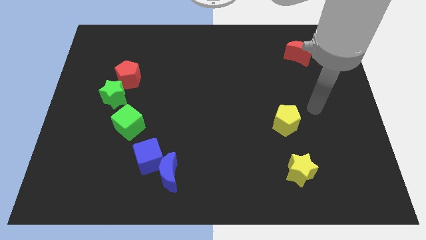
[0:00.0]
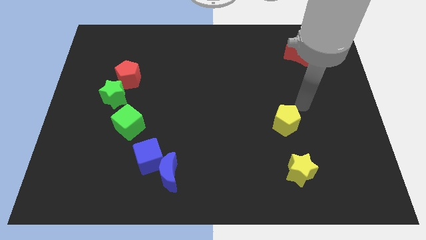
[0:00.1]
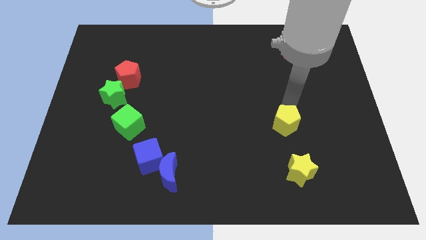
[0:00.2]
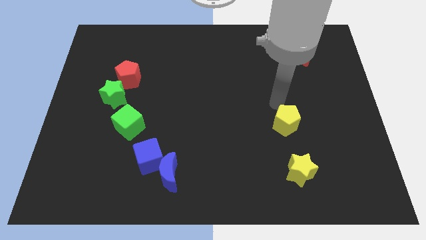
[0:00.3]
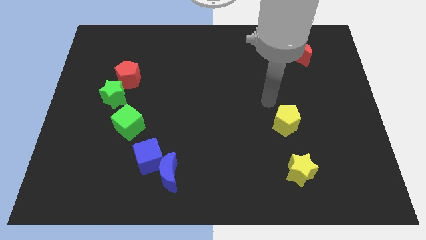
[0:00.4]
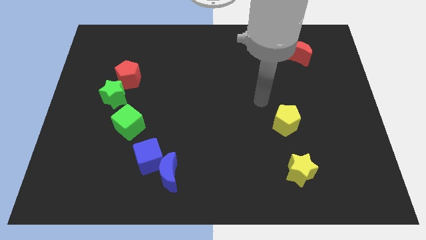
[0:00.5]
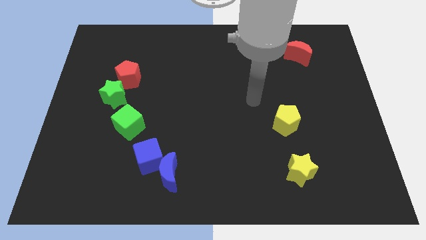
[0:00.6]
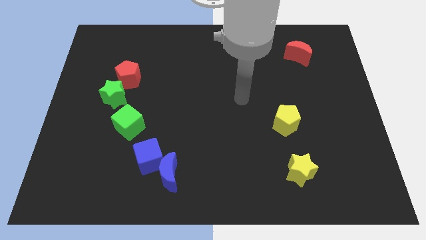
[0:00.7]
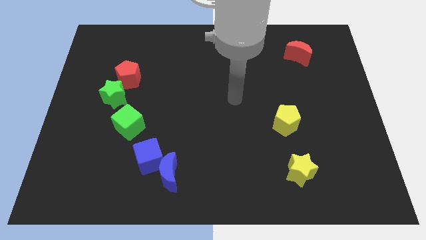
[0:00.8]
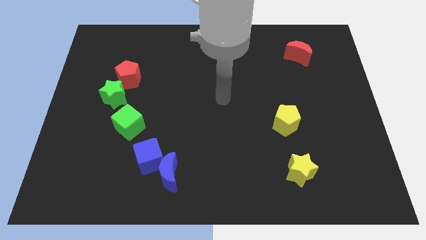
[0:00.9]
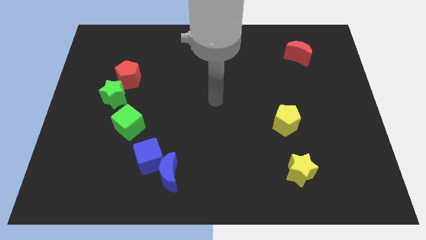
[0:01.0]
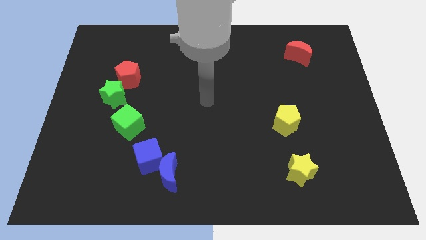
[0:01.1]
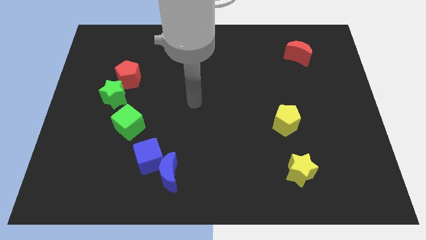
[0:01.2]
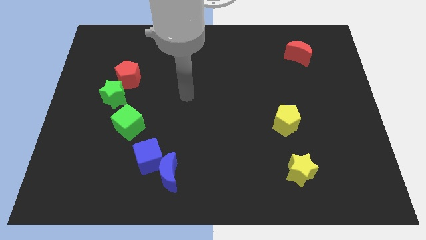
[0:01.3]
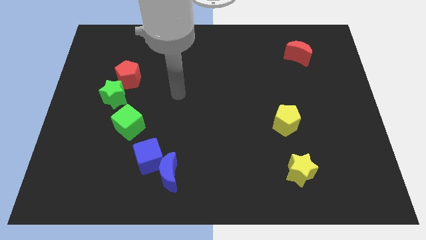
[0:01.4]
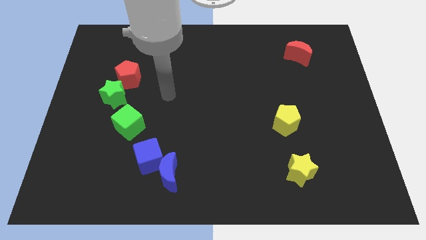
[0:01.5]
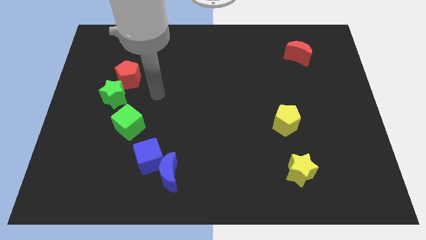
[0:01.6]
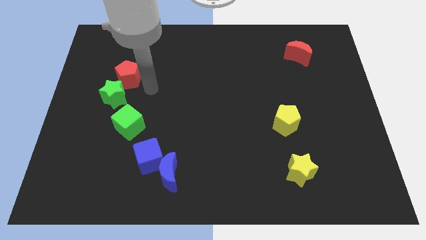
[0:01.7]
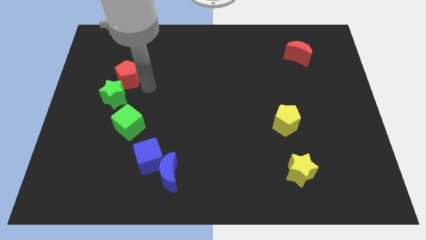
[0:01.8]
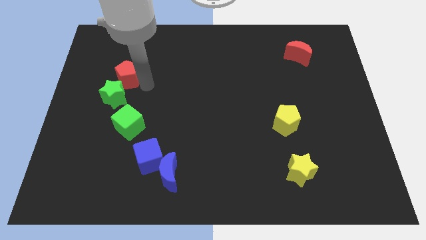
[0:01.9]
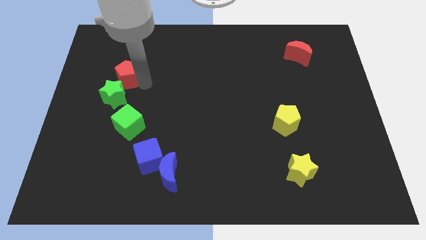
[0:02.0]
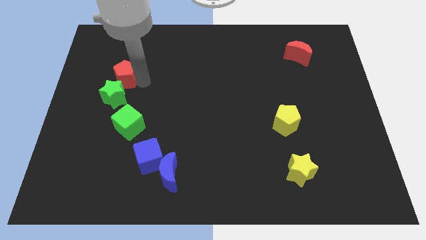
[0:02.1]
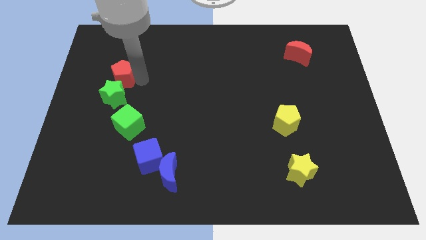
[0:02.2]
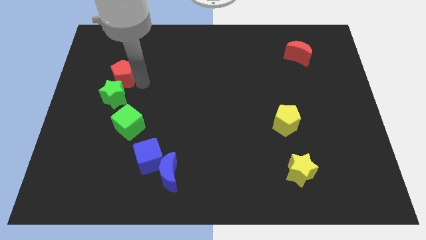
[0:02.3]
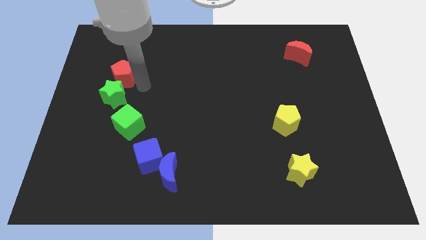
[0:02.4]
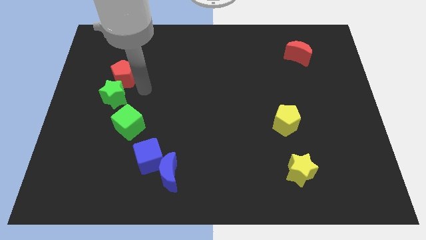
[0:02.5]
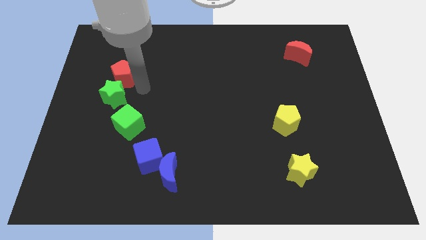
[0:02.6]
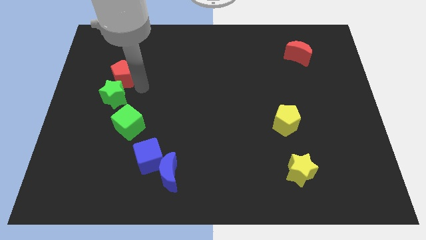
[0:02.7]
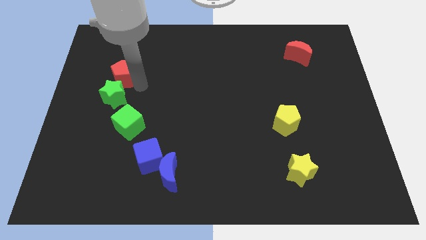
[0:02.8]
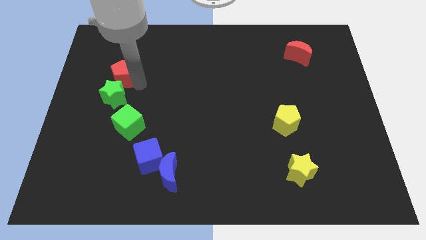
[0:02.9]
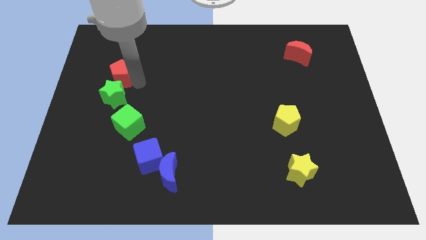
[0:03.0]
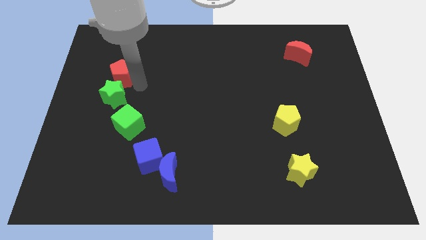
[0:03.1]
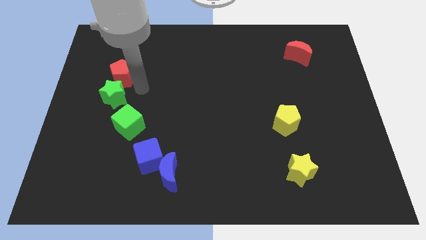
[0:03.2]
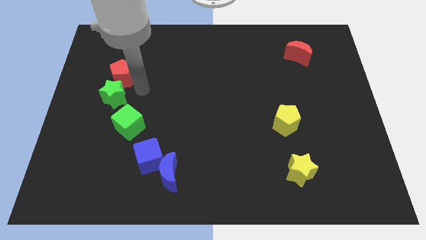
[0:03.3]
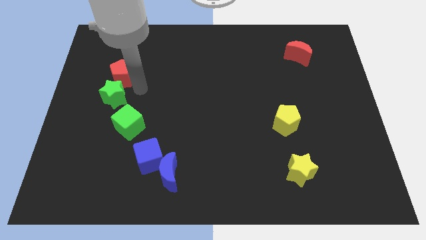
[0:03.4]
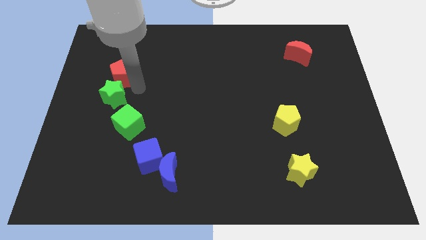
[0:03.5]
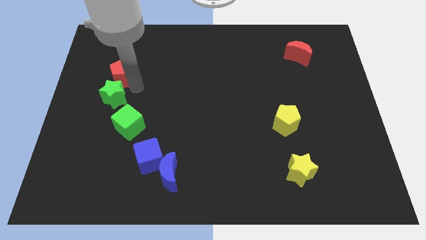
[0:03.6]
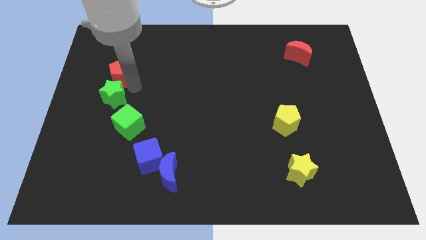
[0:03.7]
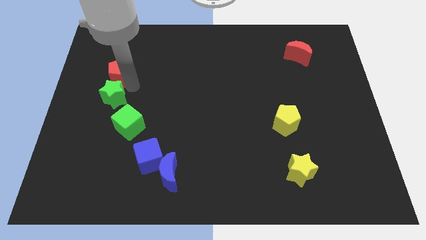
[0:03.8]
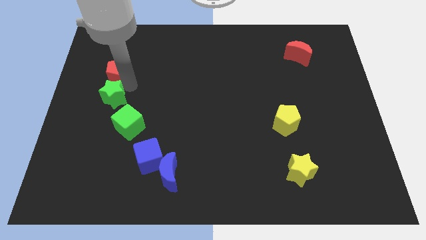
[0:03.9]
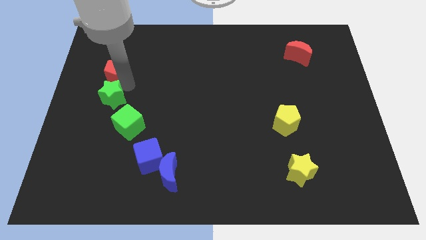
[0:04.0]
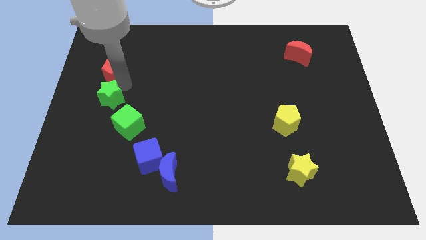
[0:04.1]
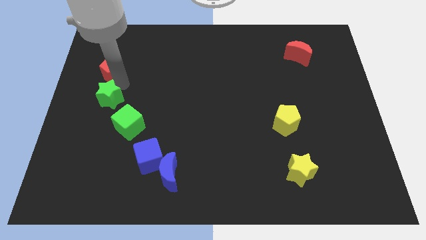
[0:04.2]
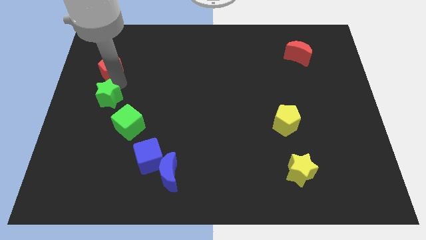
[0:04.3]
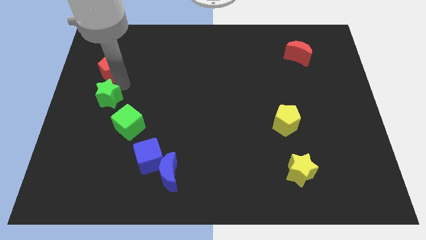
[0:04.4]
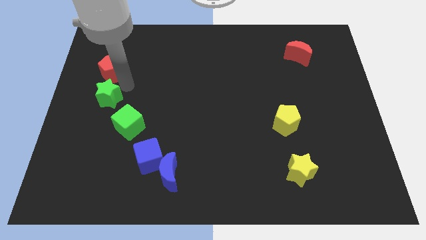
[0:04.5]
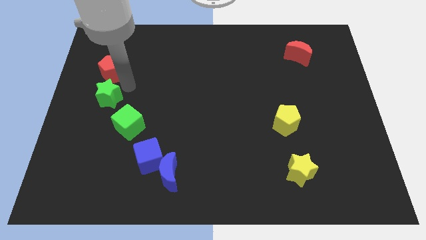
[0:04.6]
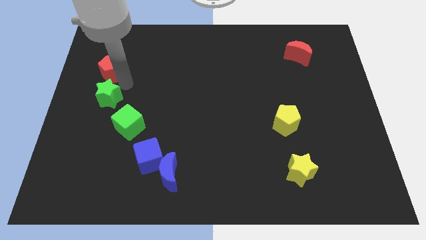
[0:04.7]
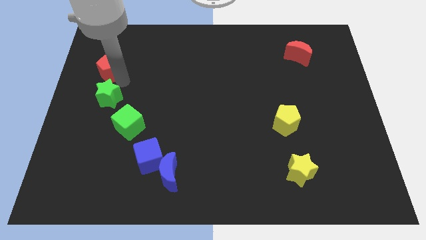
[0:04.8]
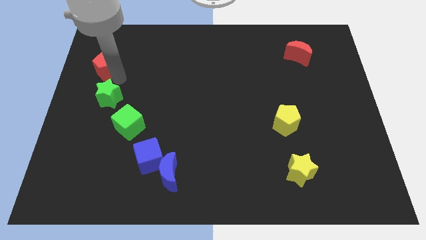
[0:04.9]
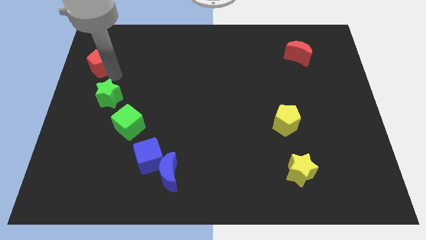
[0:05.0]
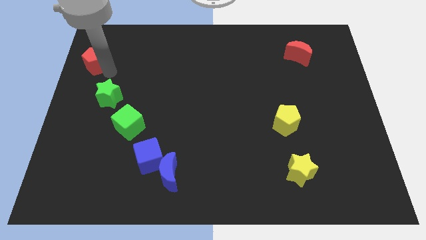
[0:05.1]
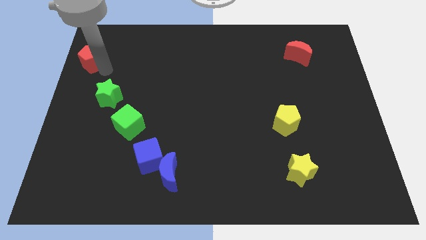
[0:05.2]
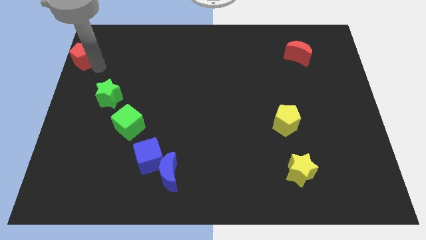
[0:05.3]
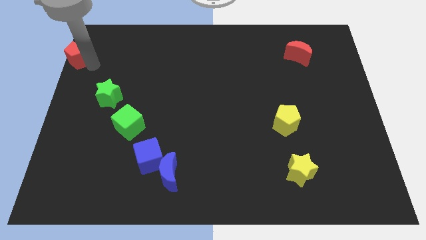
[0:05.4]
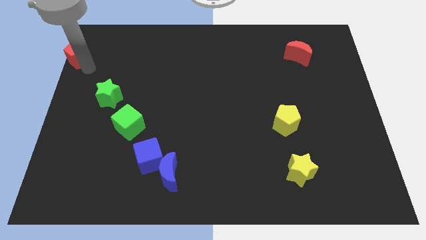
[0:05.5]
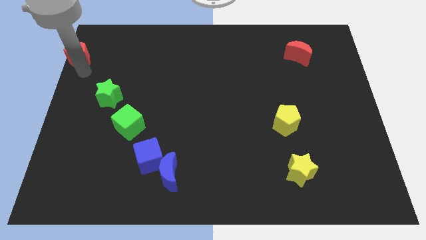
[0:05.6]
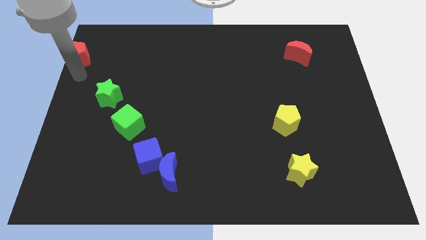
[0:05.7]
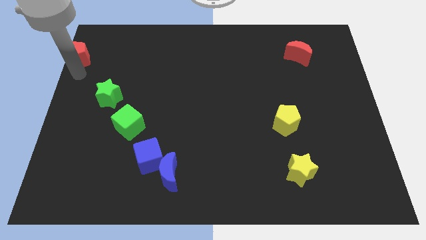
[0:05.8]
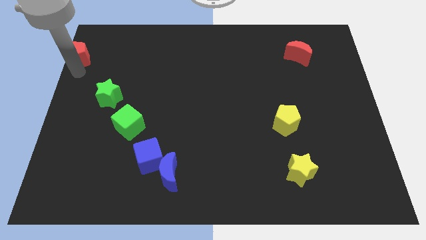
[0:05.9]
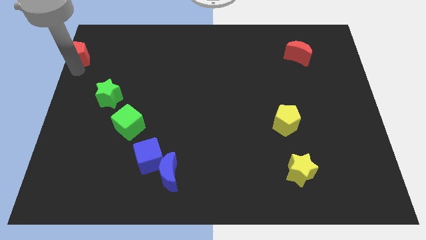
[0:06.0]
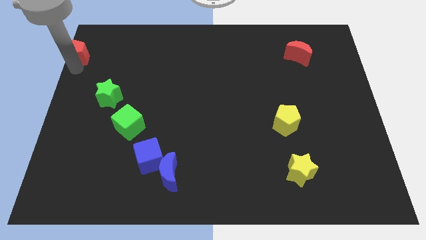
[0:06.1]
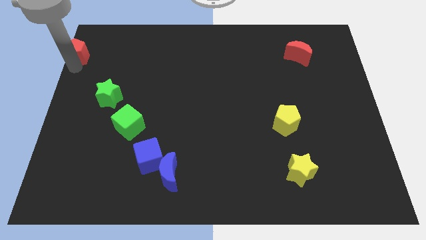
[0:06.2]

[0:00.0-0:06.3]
move the red pentagon to the top left
